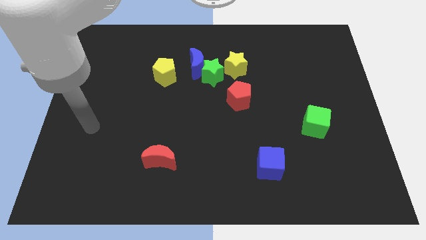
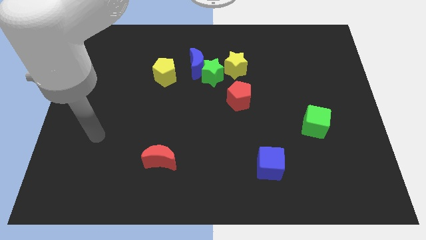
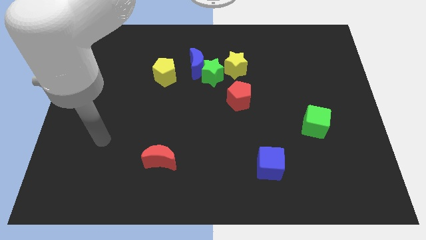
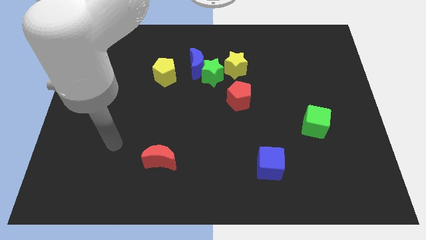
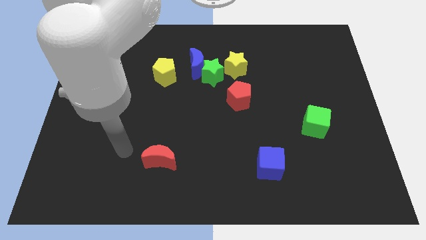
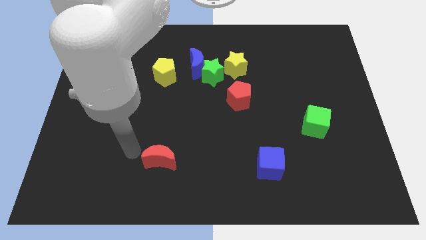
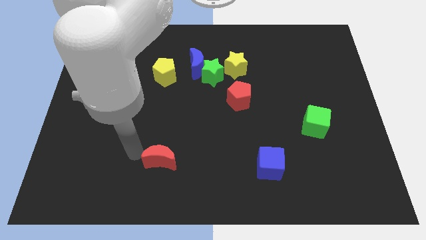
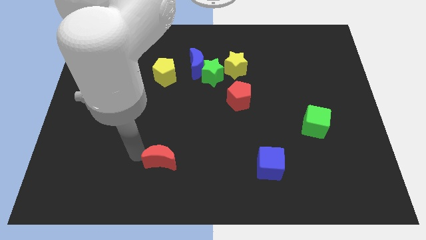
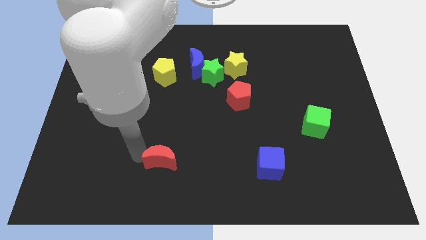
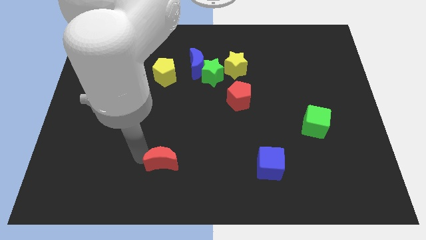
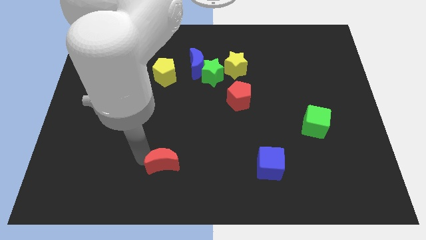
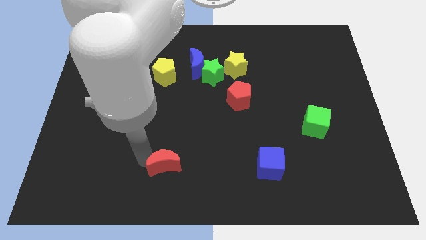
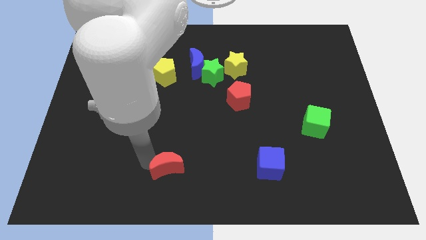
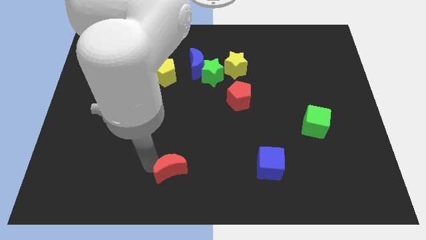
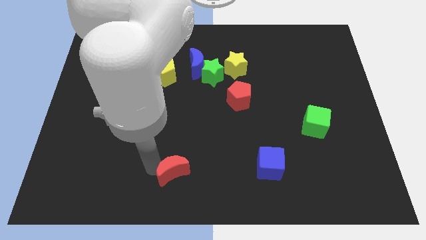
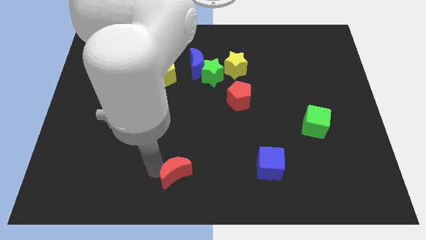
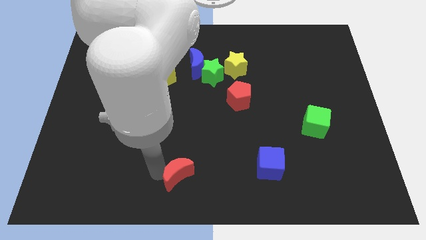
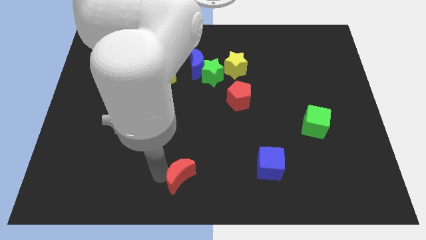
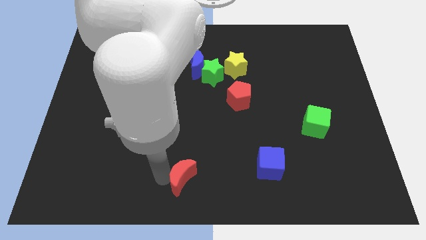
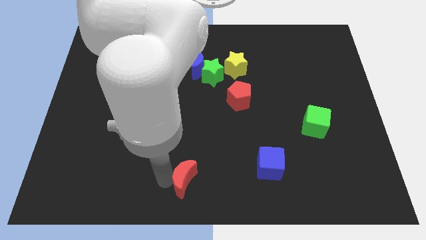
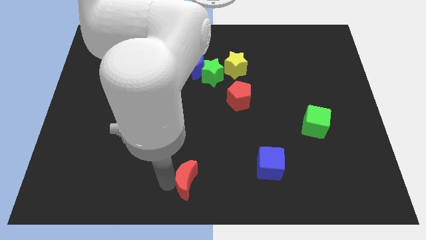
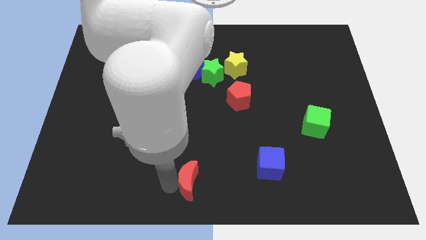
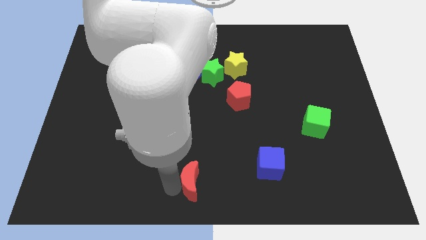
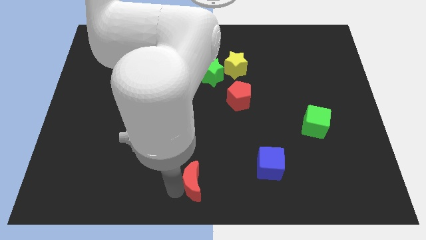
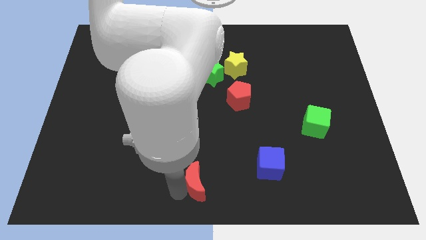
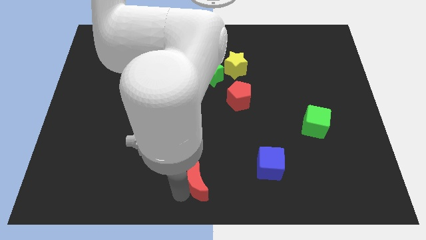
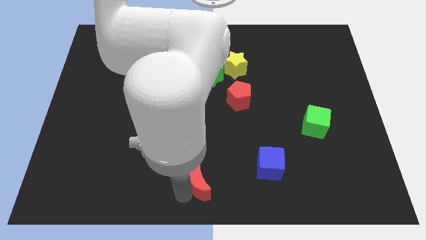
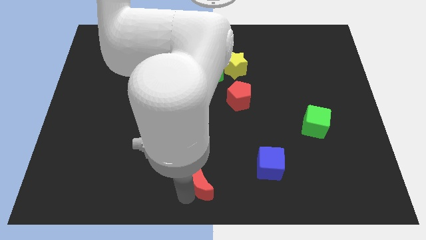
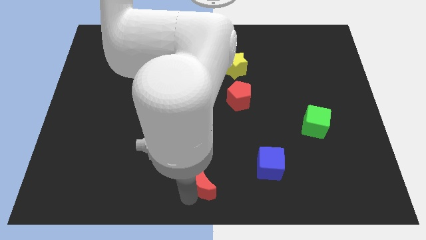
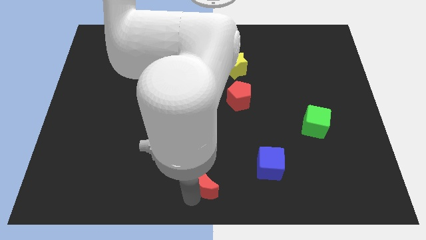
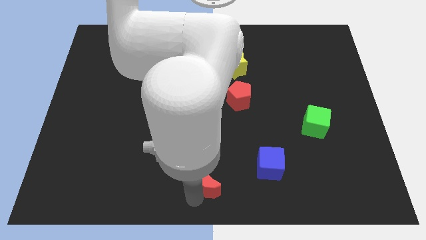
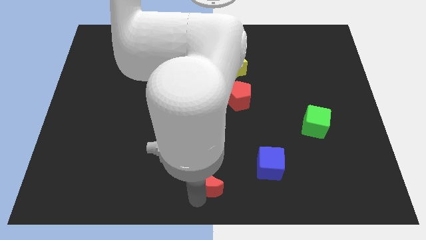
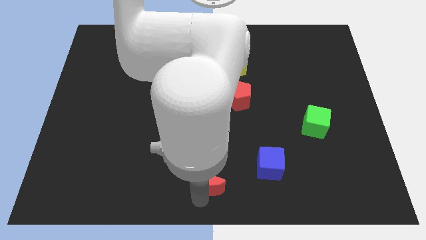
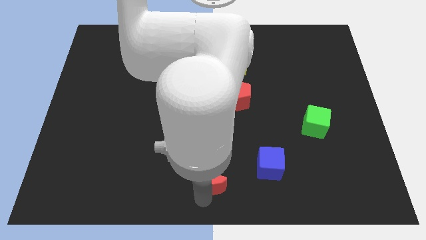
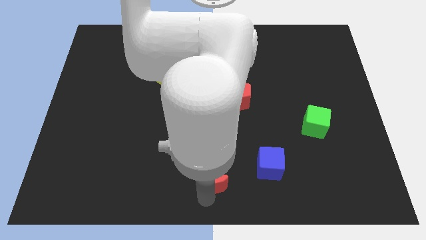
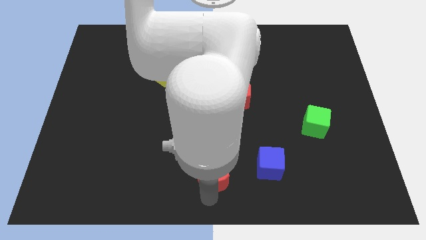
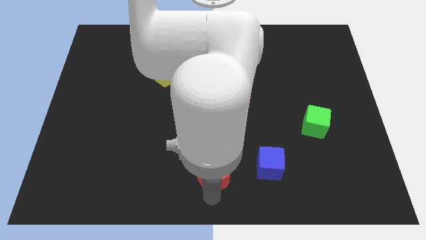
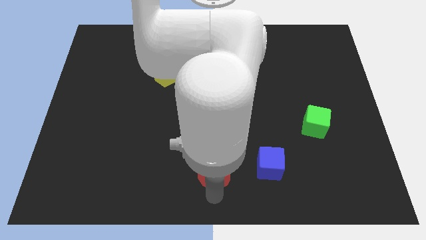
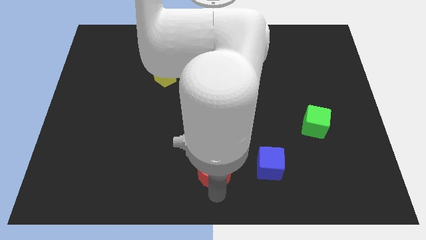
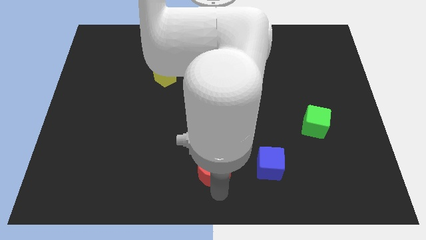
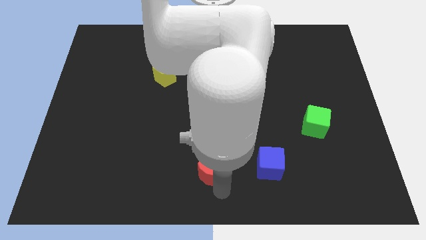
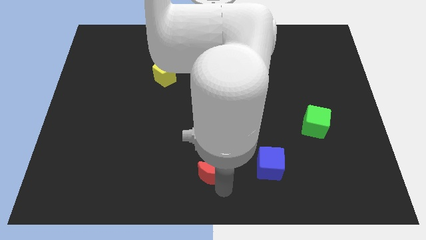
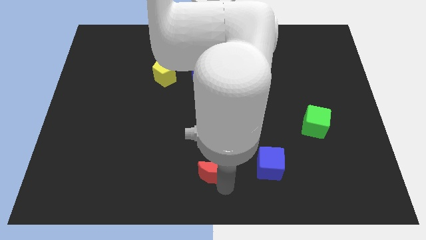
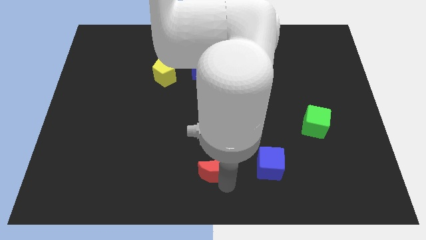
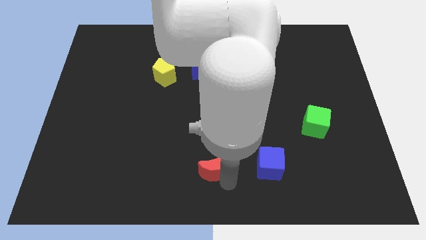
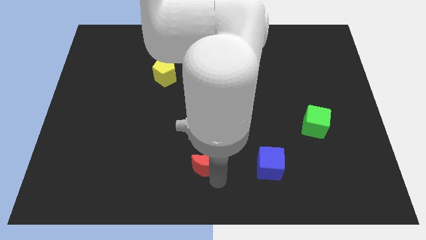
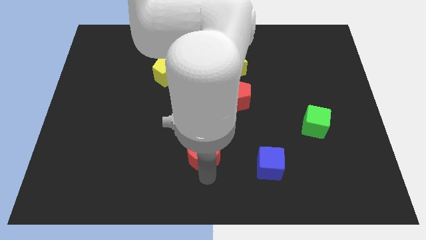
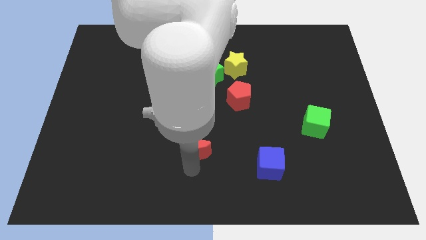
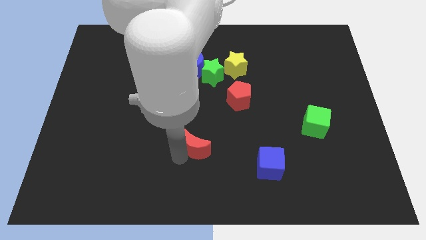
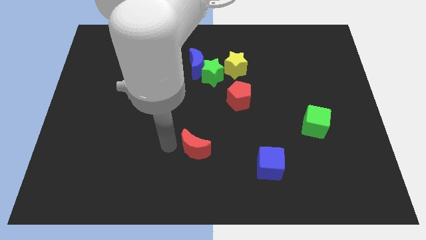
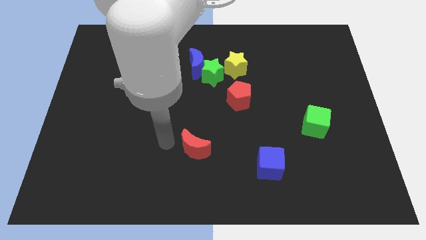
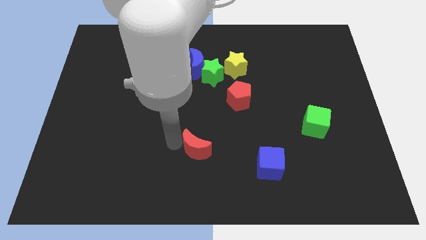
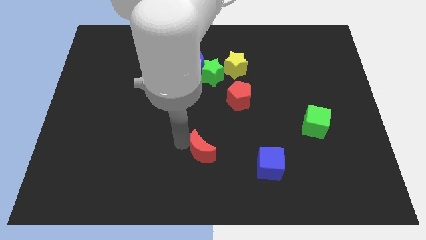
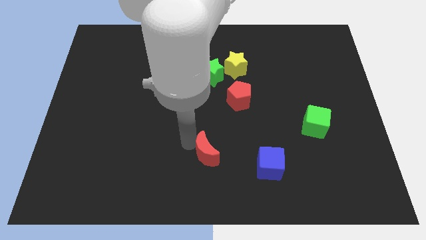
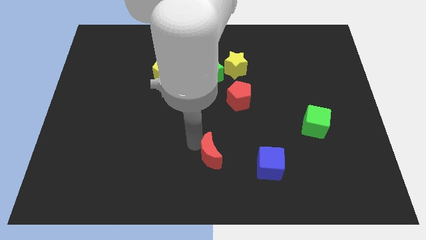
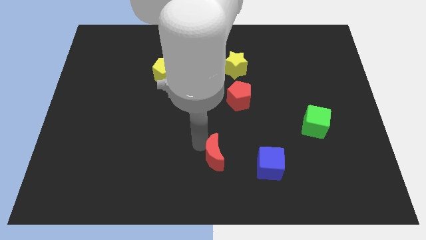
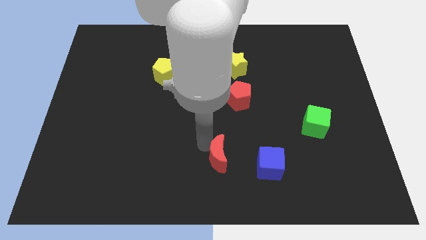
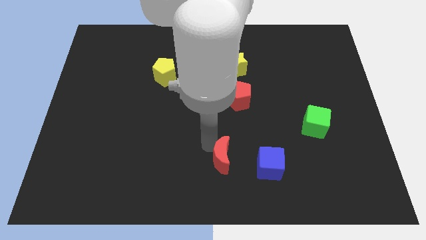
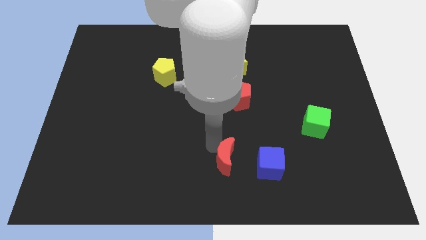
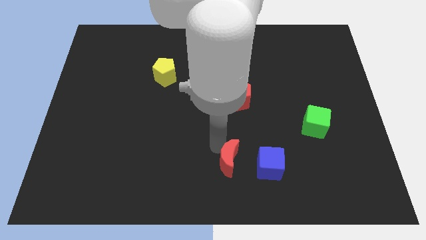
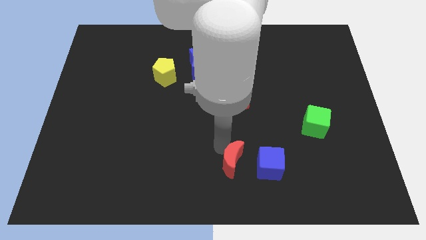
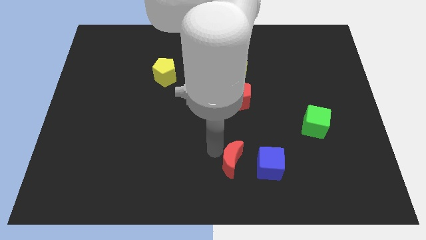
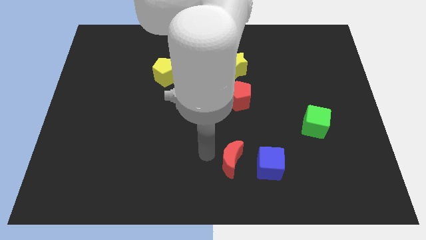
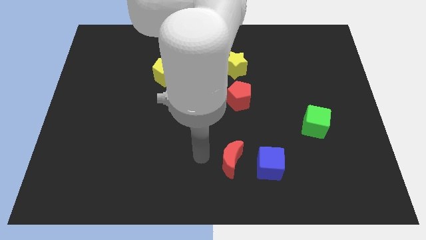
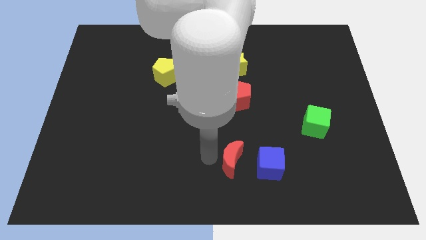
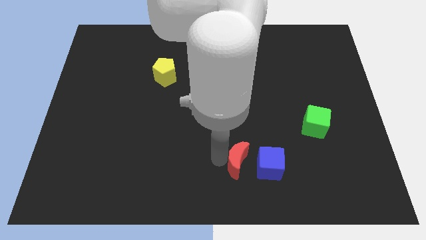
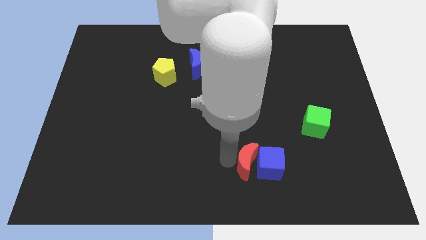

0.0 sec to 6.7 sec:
move the red moon towards the blue cube
